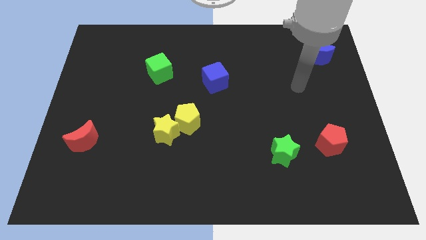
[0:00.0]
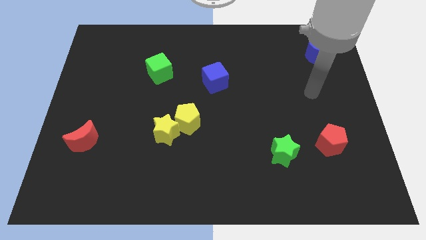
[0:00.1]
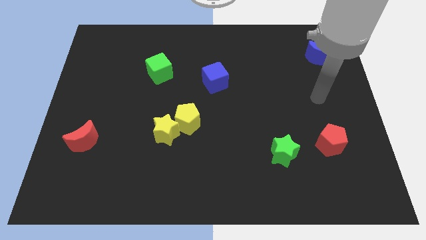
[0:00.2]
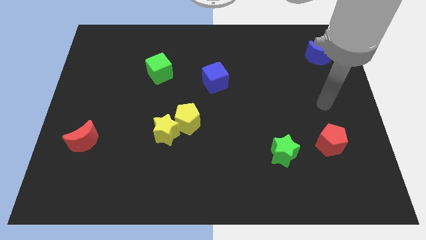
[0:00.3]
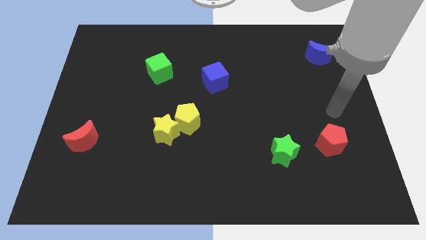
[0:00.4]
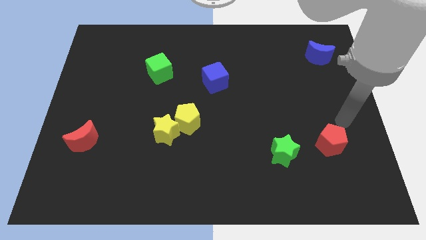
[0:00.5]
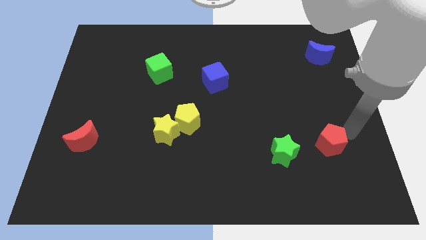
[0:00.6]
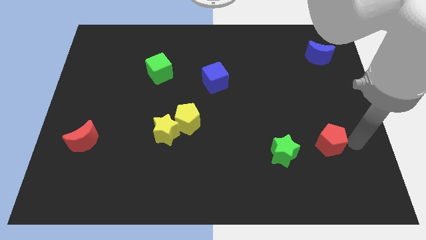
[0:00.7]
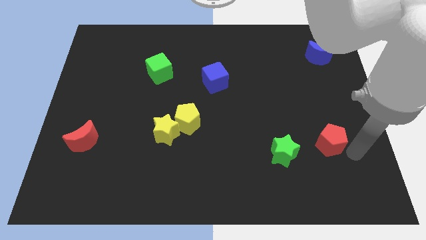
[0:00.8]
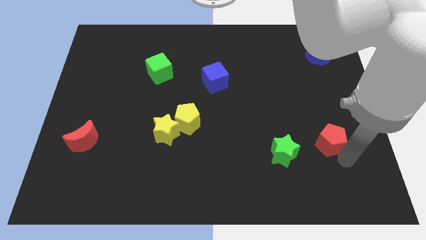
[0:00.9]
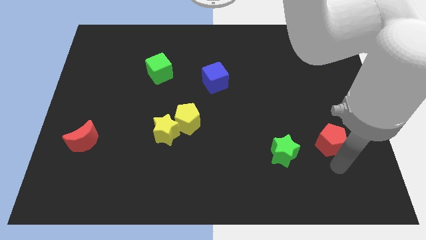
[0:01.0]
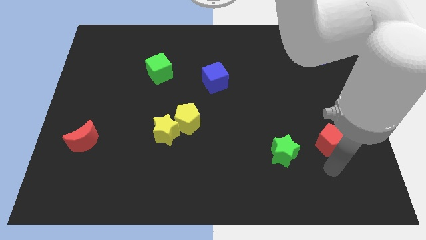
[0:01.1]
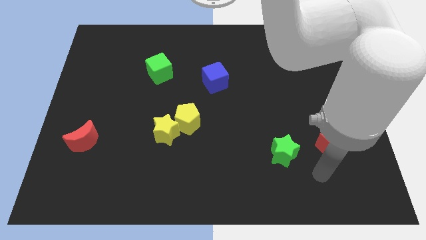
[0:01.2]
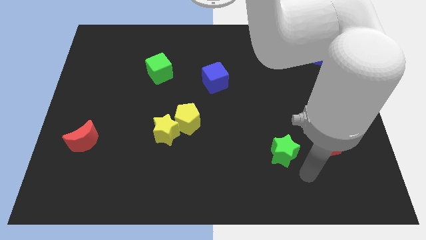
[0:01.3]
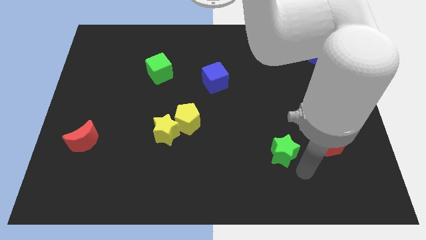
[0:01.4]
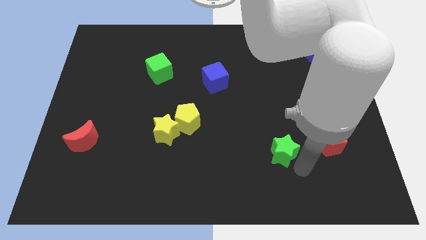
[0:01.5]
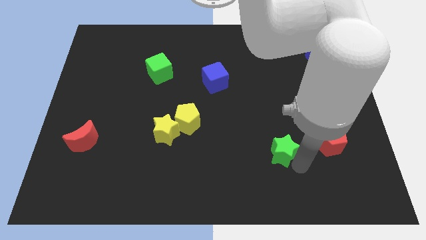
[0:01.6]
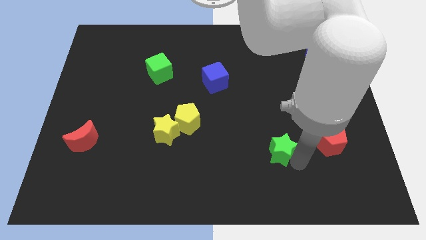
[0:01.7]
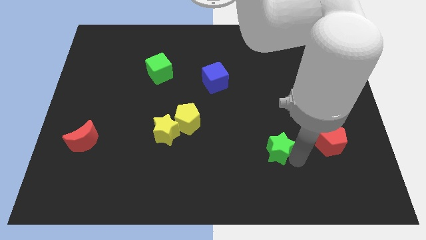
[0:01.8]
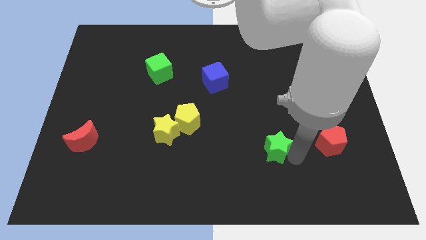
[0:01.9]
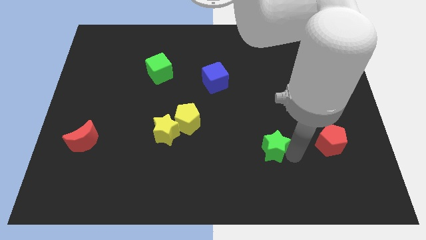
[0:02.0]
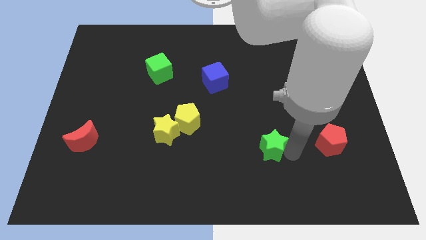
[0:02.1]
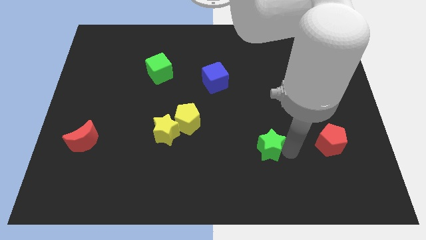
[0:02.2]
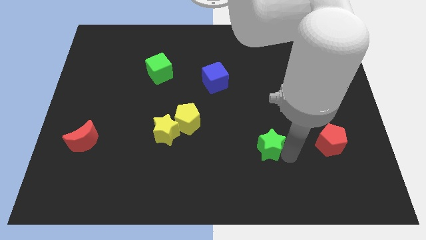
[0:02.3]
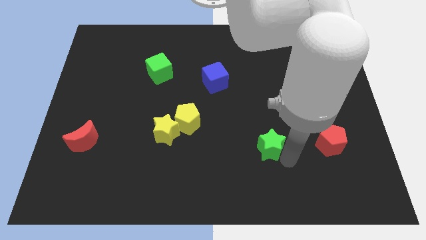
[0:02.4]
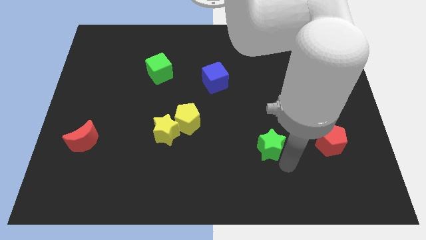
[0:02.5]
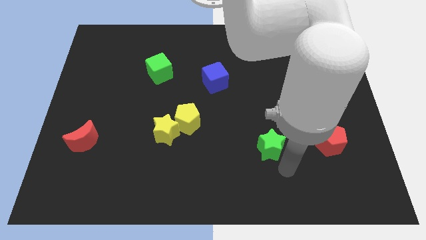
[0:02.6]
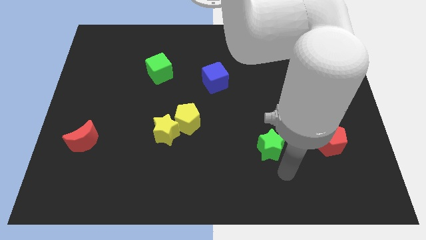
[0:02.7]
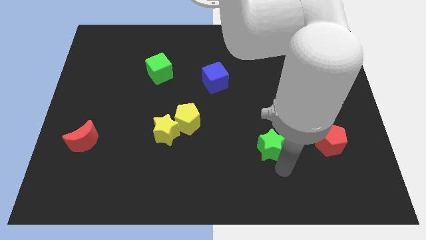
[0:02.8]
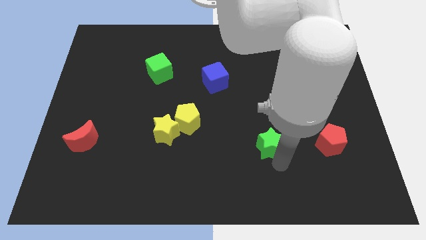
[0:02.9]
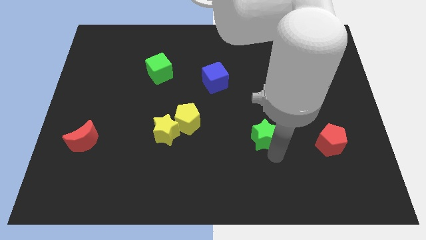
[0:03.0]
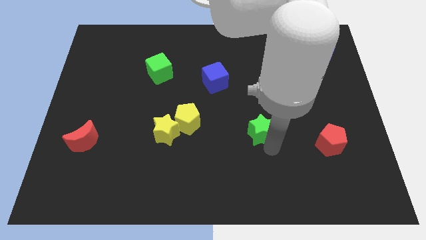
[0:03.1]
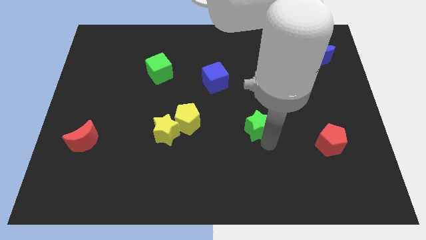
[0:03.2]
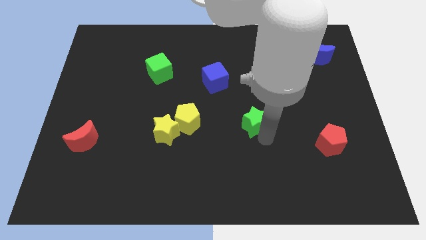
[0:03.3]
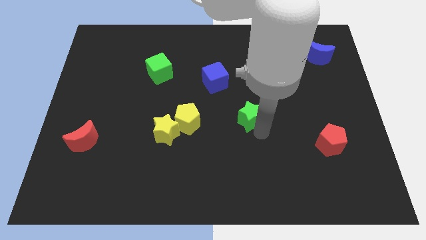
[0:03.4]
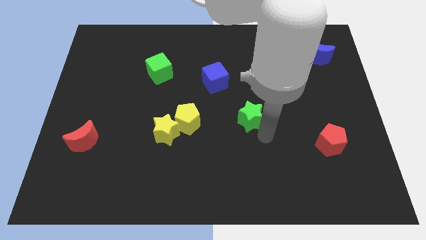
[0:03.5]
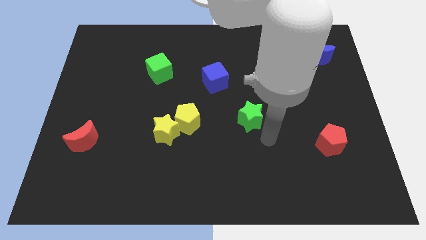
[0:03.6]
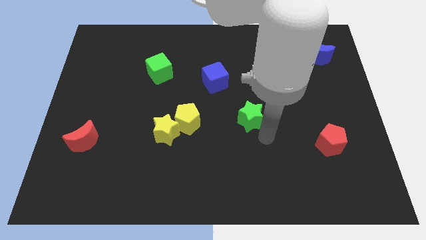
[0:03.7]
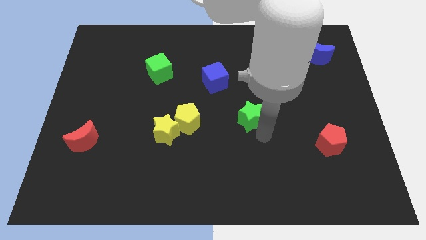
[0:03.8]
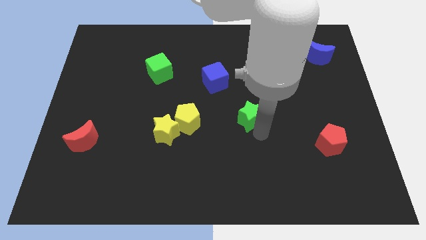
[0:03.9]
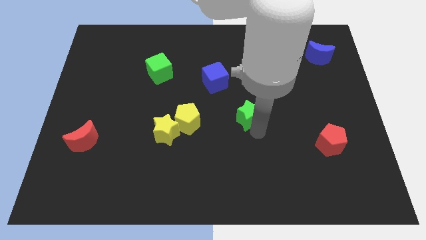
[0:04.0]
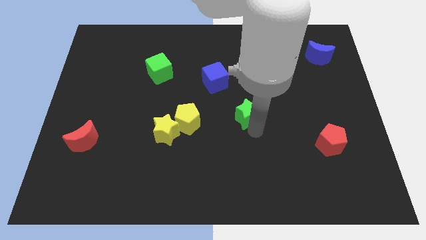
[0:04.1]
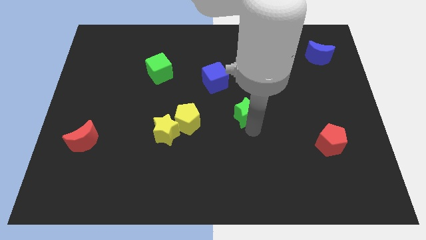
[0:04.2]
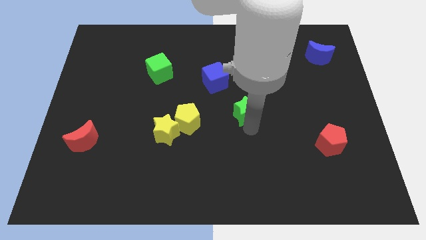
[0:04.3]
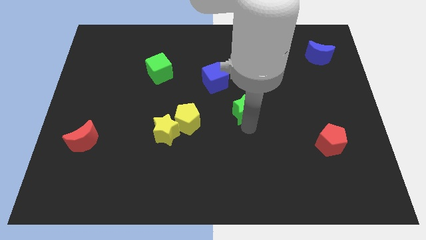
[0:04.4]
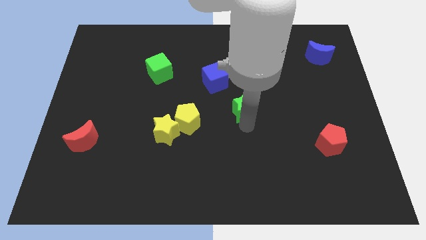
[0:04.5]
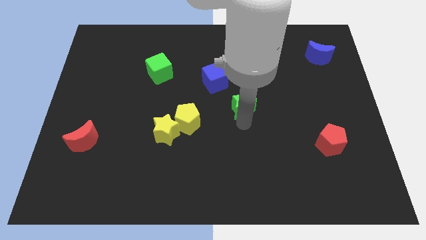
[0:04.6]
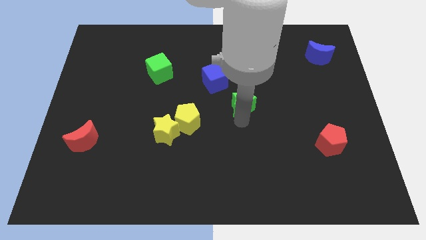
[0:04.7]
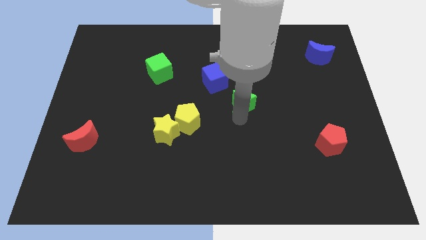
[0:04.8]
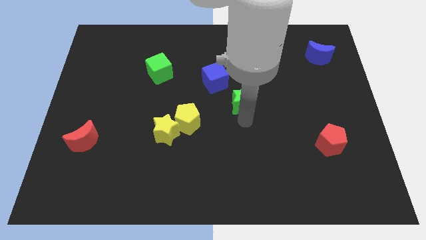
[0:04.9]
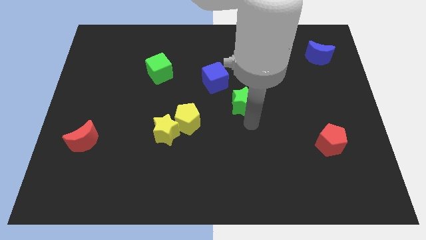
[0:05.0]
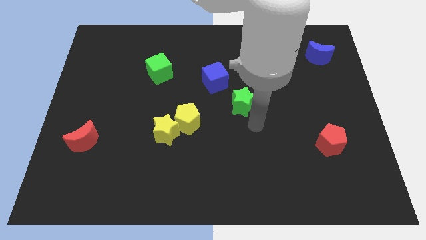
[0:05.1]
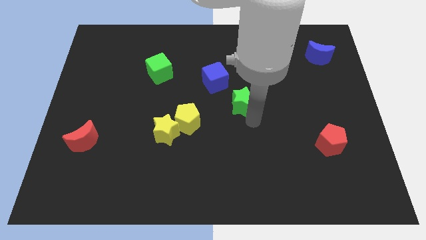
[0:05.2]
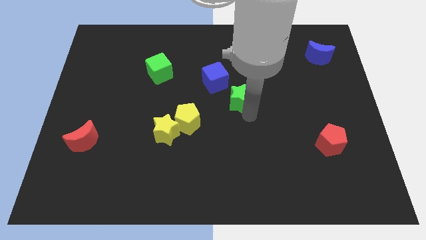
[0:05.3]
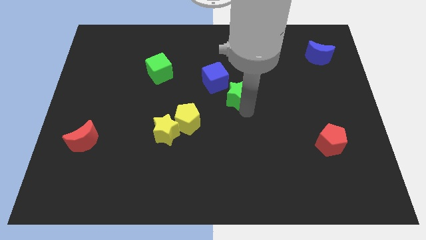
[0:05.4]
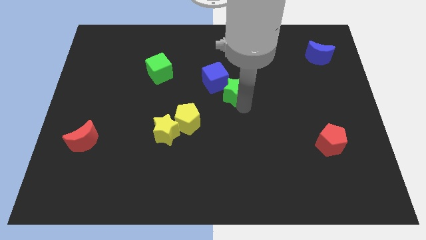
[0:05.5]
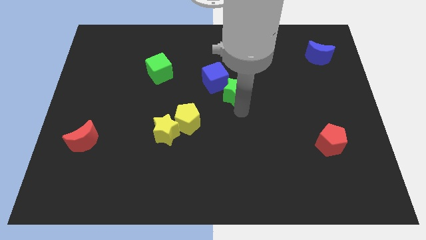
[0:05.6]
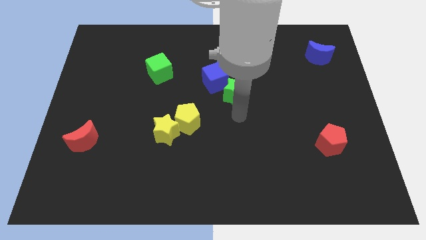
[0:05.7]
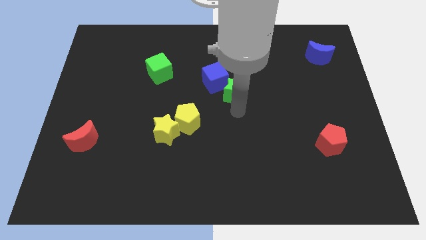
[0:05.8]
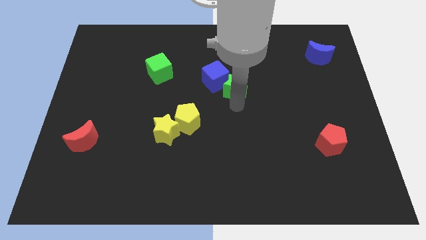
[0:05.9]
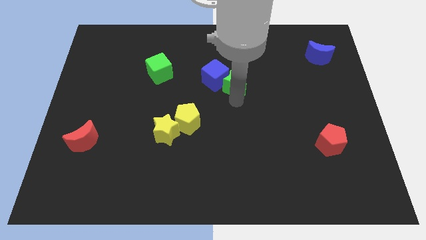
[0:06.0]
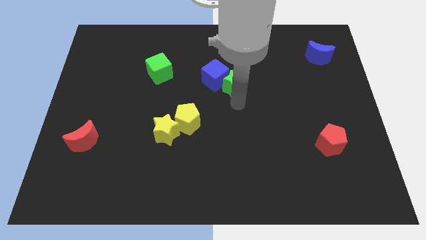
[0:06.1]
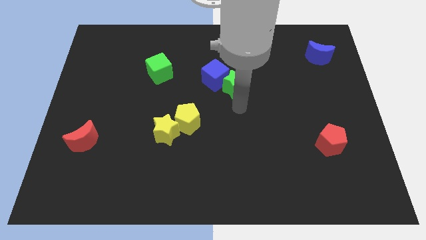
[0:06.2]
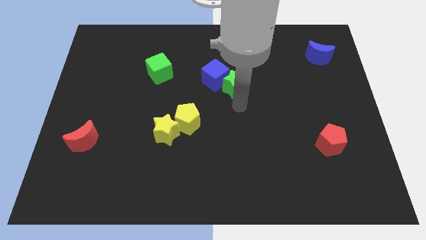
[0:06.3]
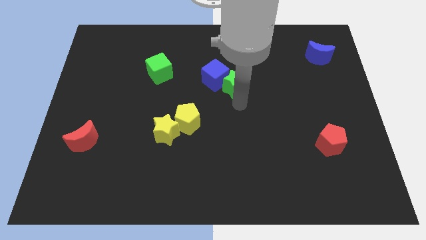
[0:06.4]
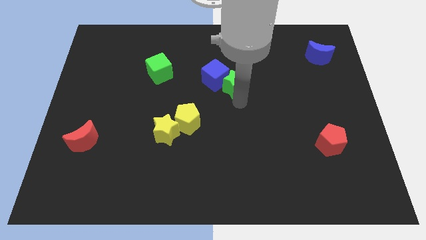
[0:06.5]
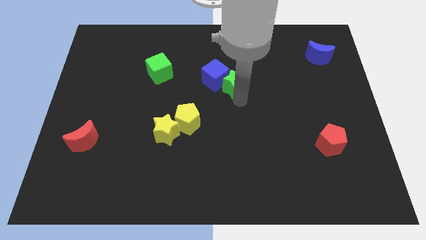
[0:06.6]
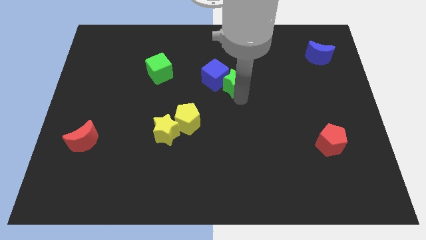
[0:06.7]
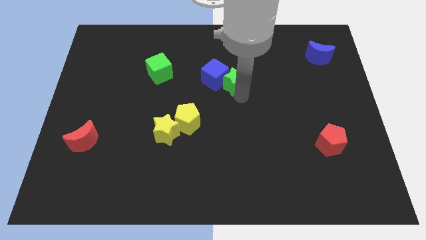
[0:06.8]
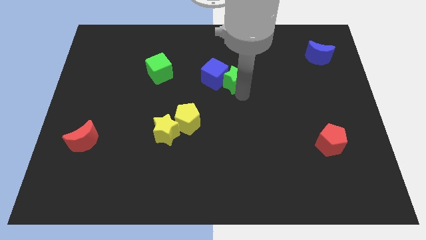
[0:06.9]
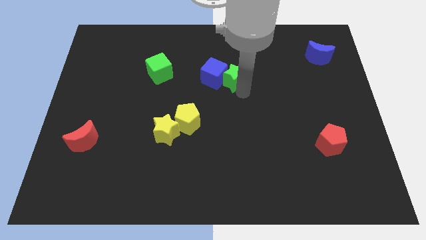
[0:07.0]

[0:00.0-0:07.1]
push the green star diagonally up and to the right of the blue cube

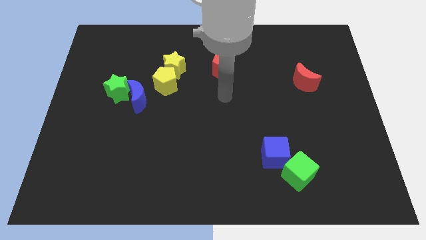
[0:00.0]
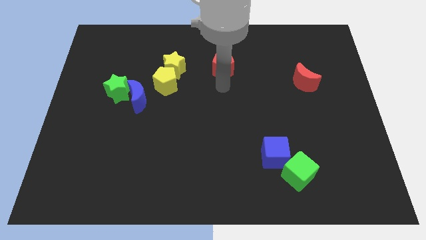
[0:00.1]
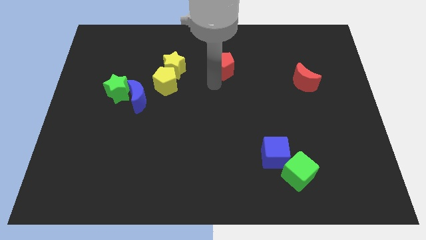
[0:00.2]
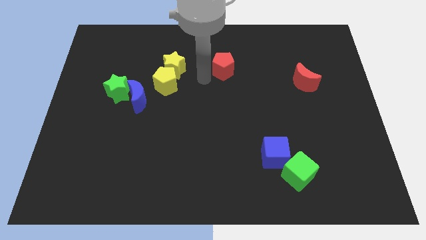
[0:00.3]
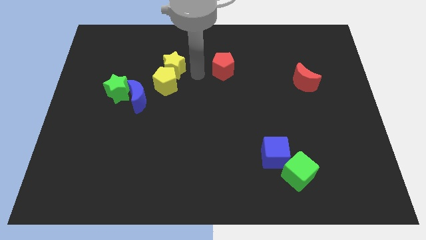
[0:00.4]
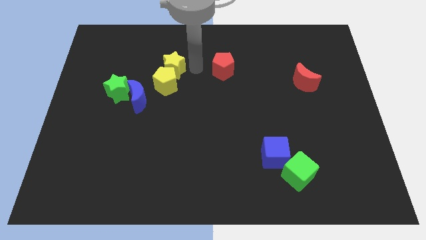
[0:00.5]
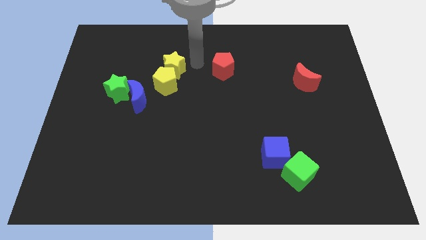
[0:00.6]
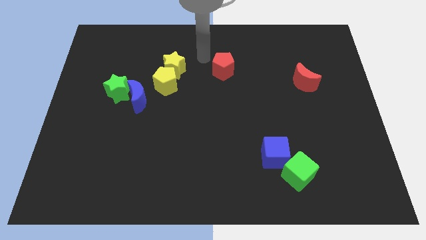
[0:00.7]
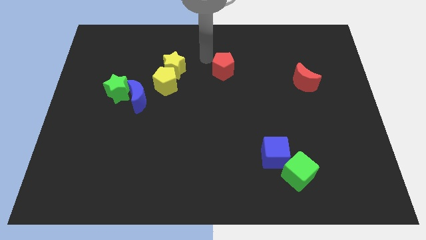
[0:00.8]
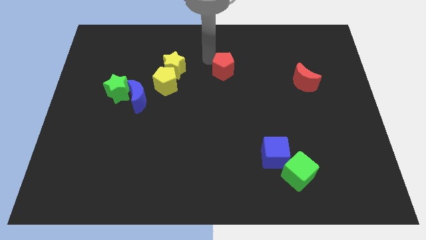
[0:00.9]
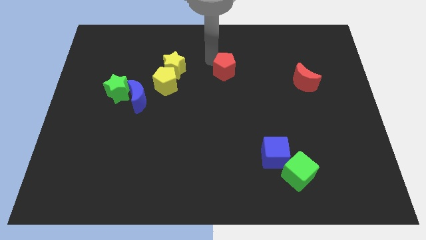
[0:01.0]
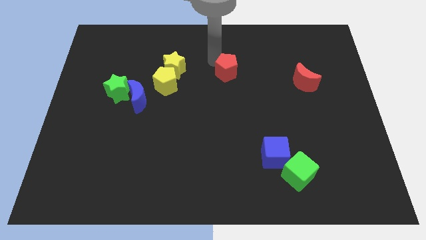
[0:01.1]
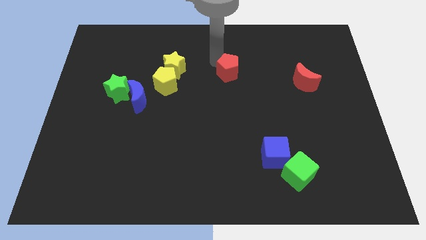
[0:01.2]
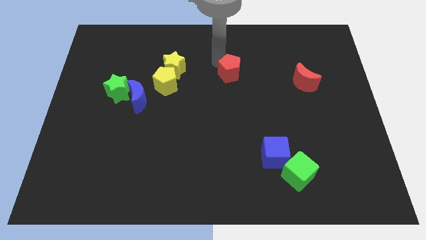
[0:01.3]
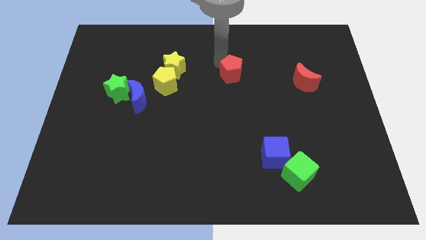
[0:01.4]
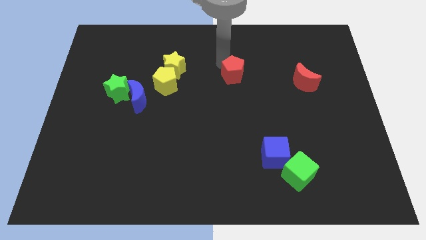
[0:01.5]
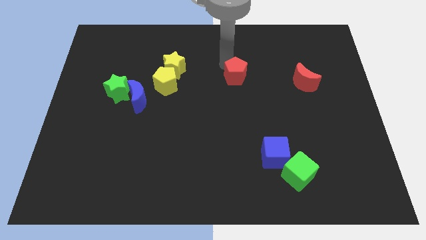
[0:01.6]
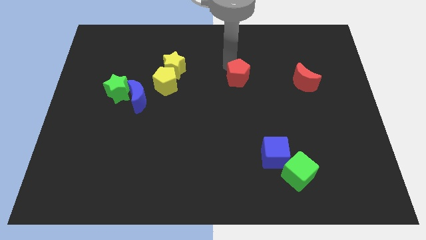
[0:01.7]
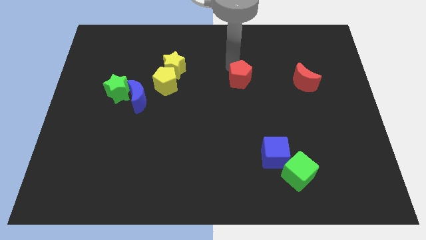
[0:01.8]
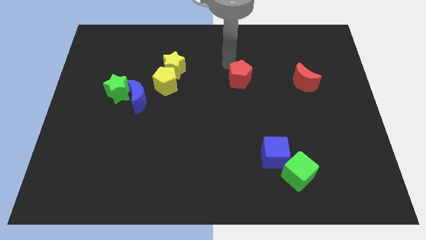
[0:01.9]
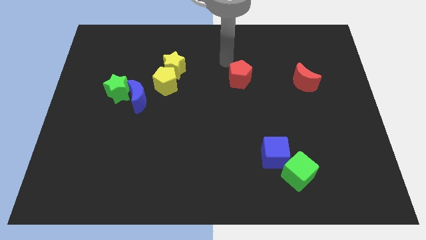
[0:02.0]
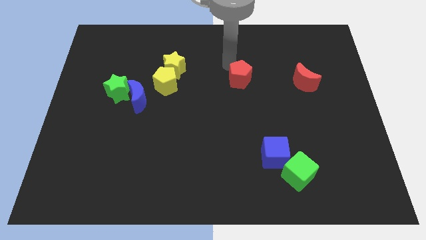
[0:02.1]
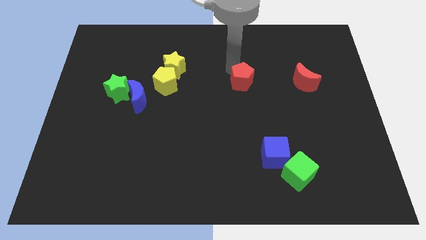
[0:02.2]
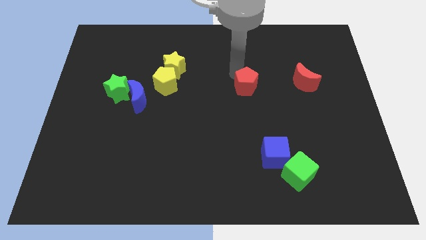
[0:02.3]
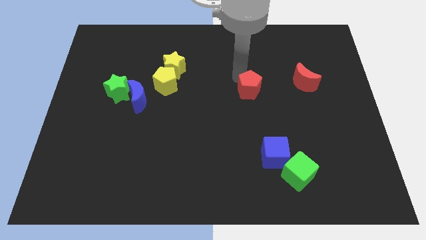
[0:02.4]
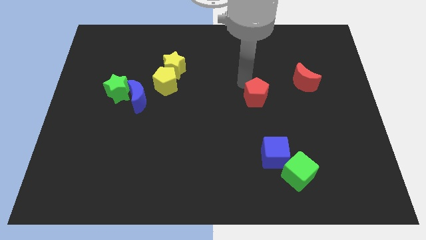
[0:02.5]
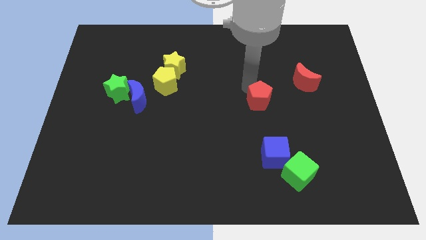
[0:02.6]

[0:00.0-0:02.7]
move the red pentagon above the blue cube
